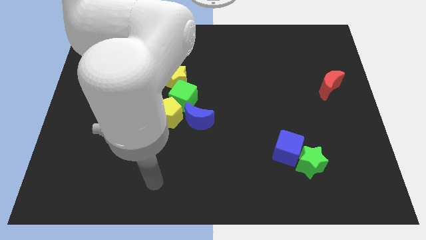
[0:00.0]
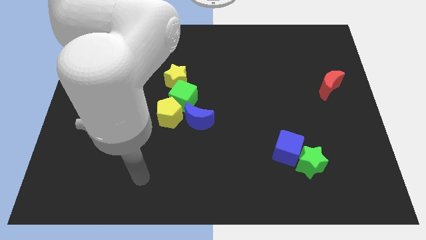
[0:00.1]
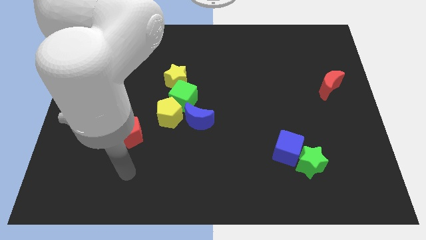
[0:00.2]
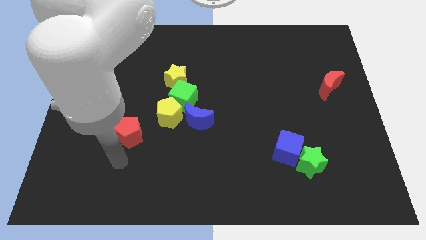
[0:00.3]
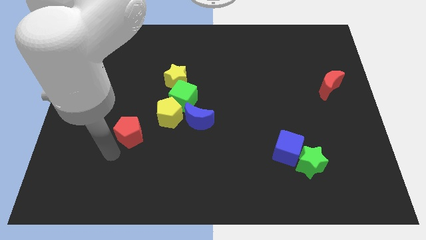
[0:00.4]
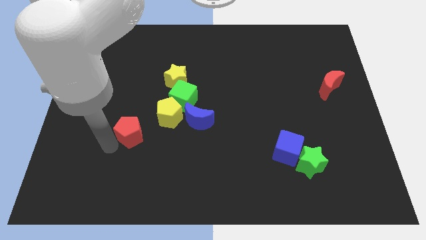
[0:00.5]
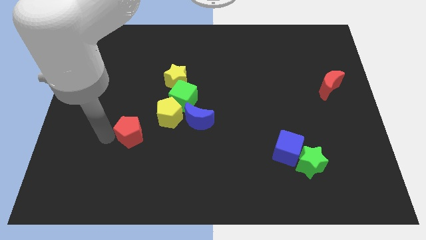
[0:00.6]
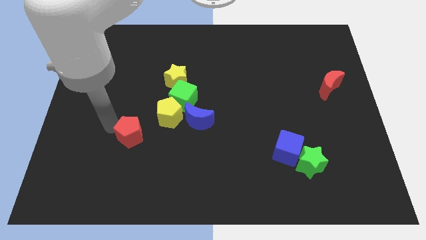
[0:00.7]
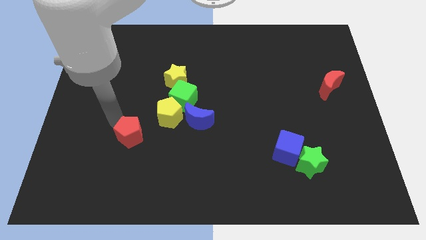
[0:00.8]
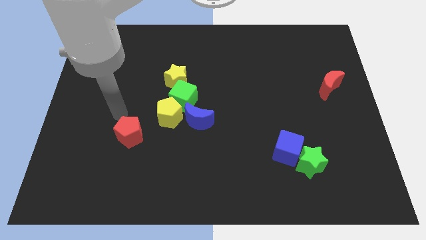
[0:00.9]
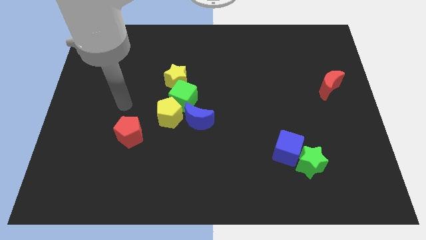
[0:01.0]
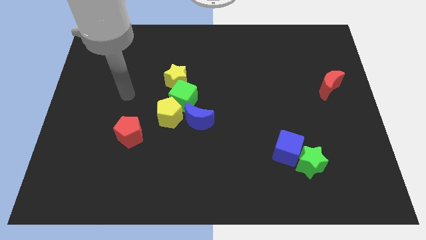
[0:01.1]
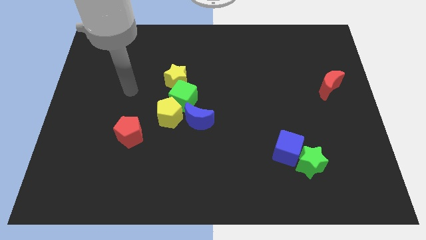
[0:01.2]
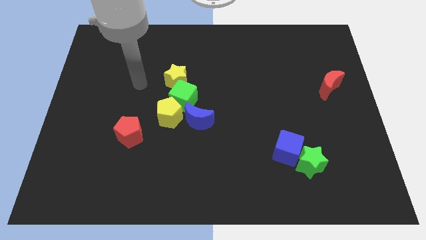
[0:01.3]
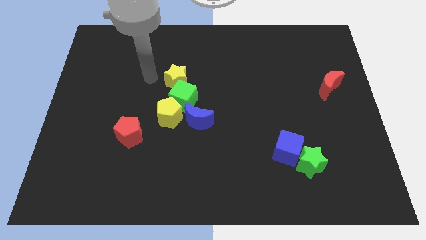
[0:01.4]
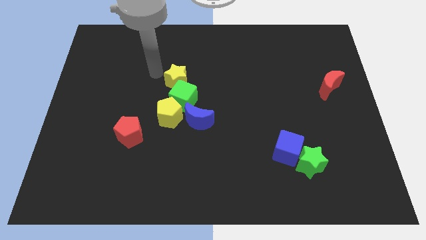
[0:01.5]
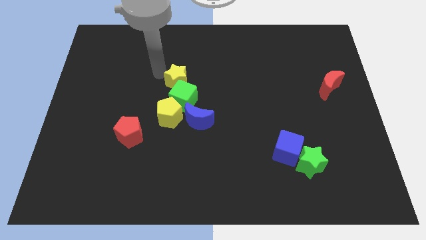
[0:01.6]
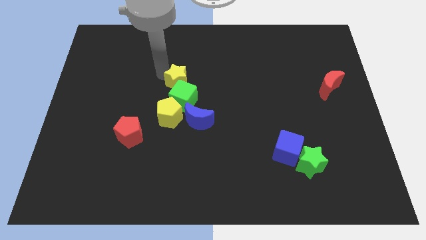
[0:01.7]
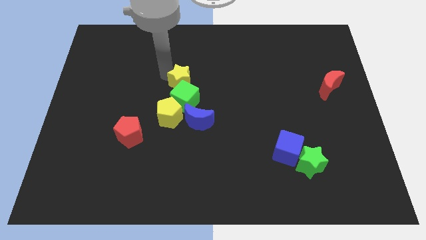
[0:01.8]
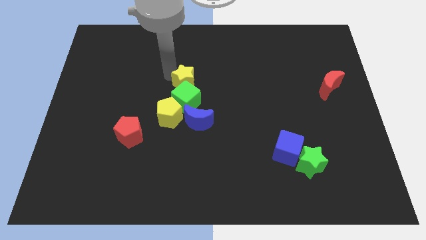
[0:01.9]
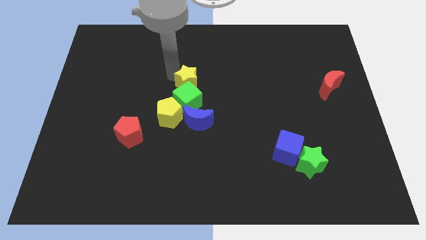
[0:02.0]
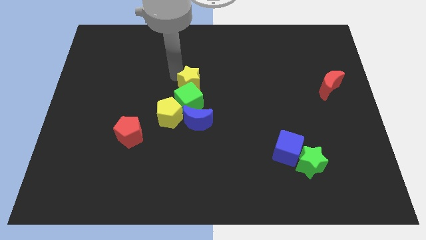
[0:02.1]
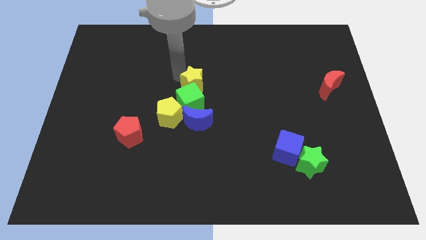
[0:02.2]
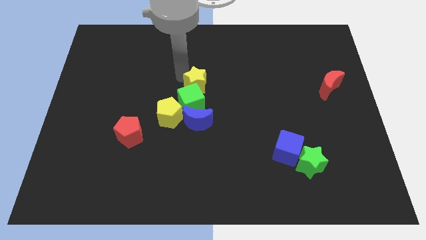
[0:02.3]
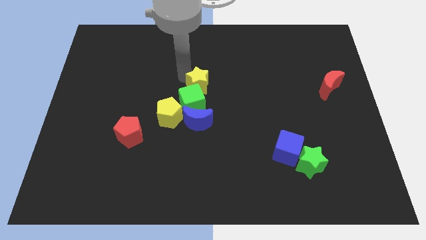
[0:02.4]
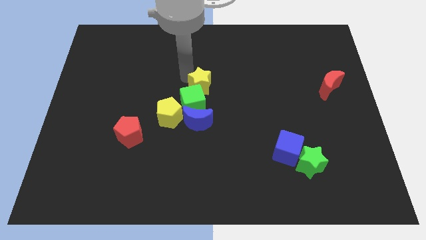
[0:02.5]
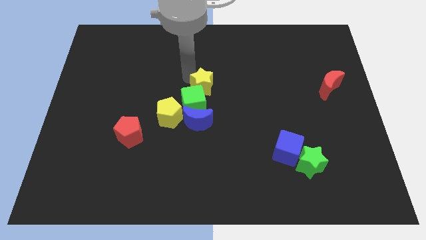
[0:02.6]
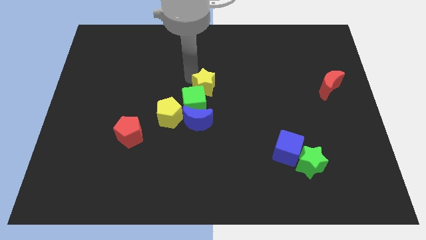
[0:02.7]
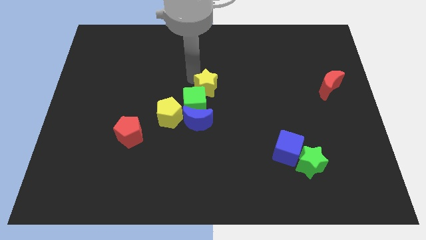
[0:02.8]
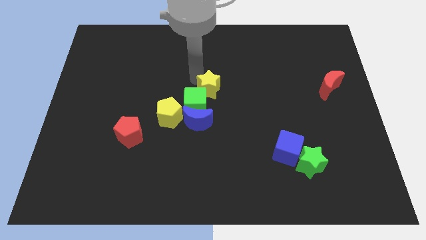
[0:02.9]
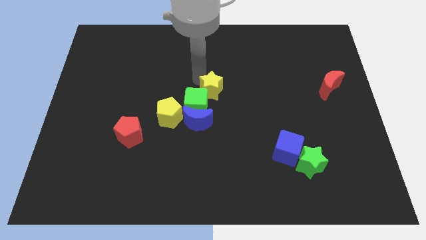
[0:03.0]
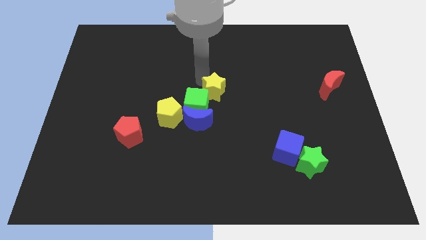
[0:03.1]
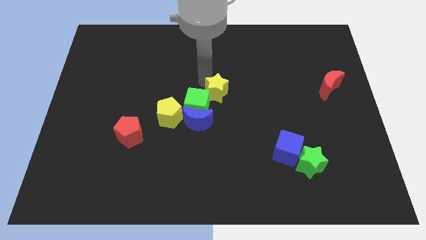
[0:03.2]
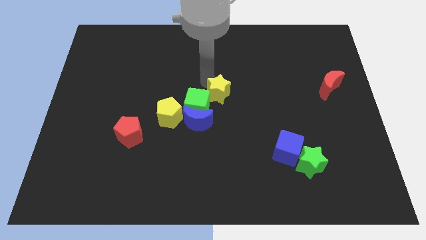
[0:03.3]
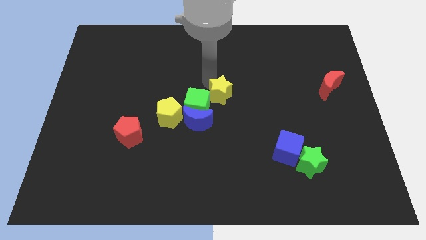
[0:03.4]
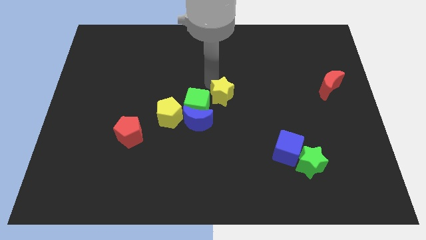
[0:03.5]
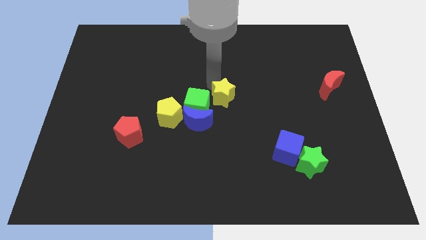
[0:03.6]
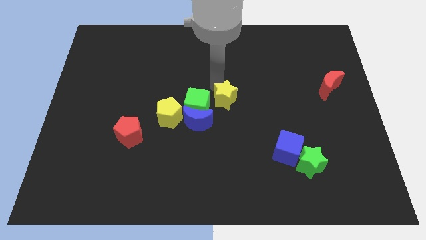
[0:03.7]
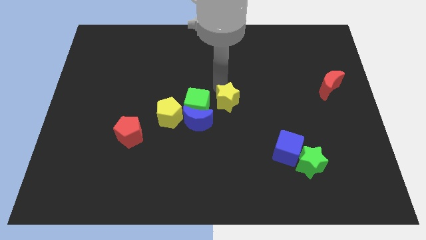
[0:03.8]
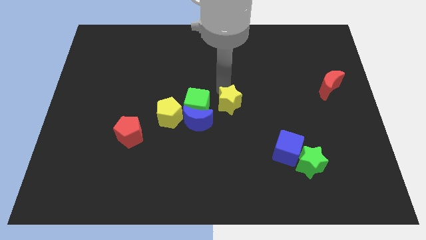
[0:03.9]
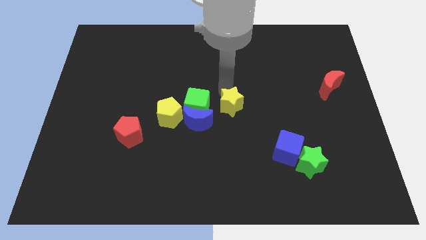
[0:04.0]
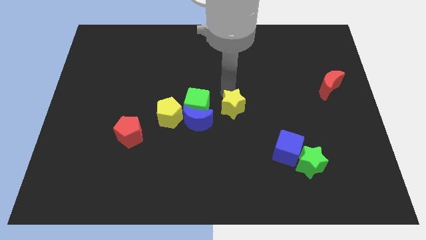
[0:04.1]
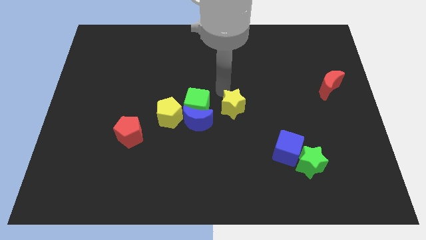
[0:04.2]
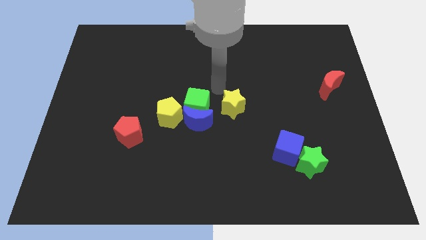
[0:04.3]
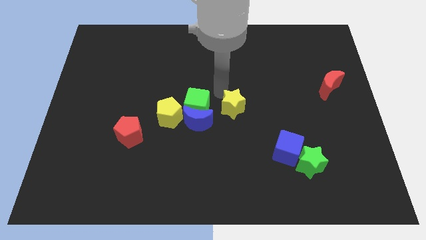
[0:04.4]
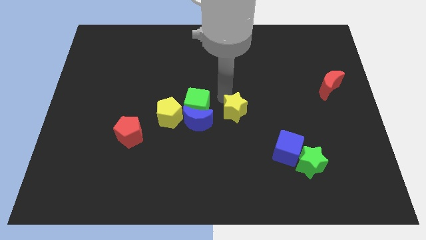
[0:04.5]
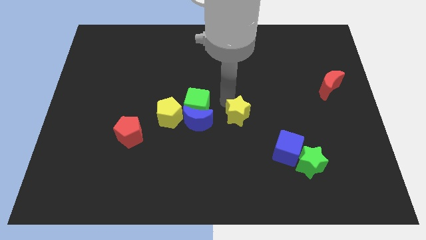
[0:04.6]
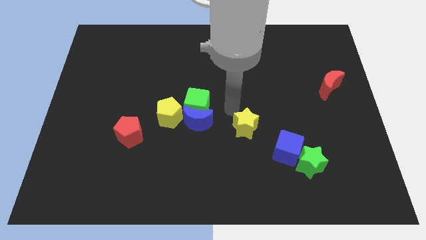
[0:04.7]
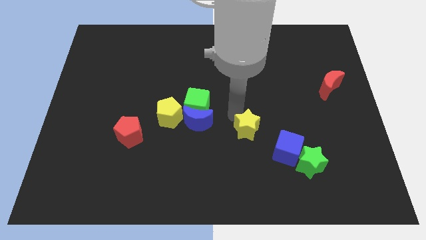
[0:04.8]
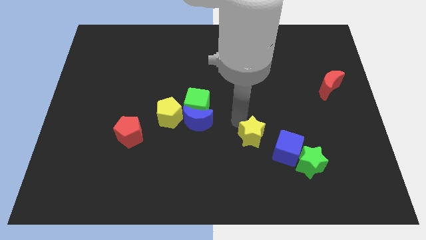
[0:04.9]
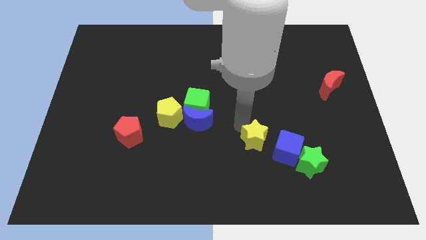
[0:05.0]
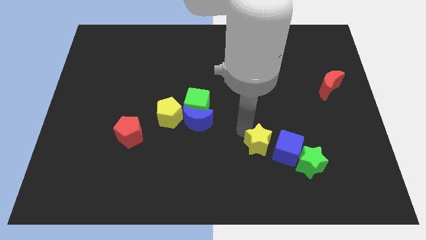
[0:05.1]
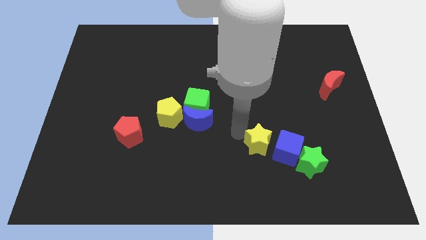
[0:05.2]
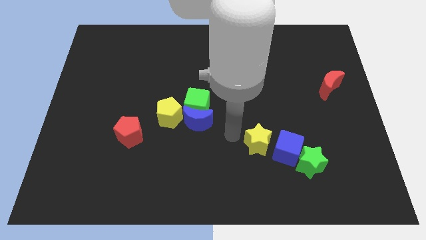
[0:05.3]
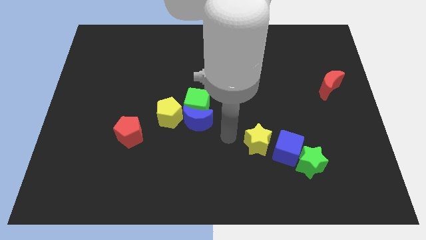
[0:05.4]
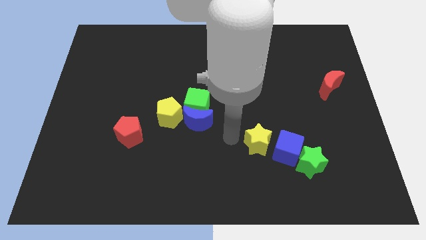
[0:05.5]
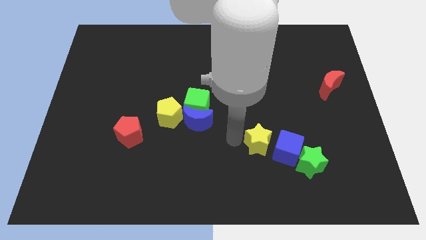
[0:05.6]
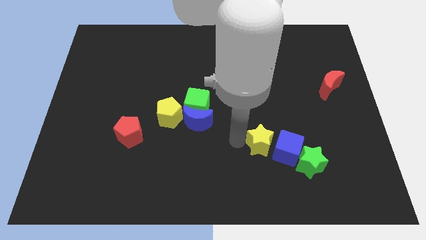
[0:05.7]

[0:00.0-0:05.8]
push the yellow star next to the blue cube
